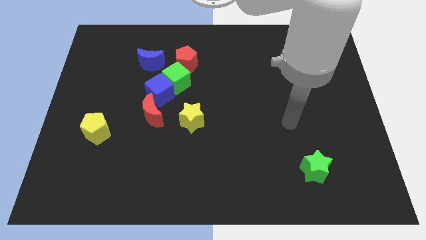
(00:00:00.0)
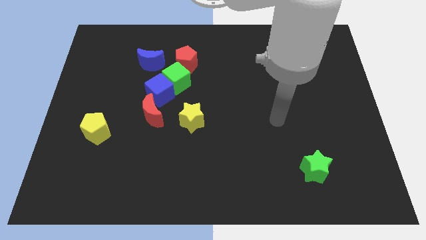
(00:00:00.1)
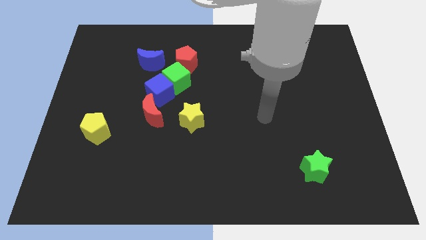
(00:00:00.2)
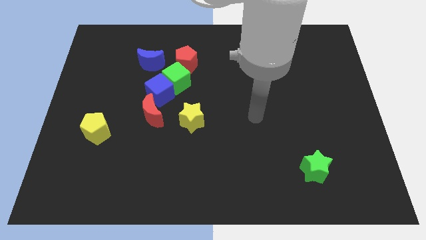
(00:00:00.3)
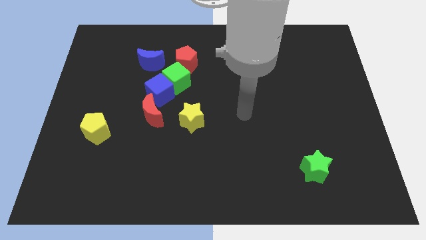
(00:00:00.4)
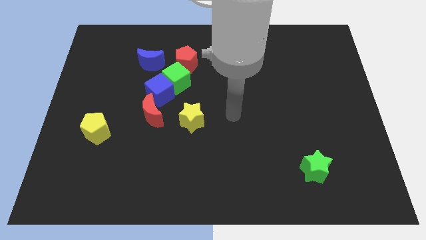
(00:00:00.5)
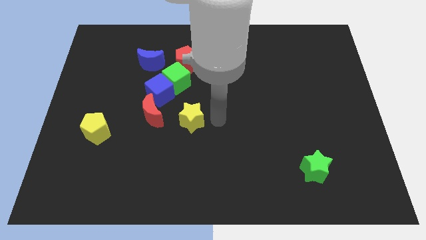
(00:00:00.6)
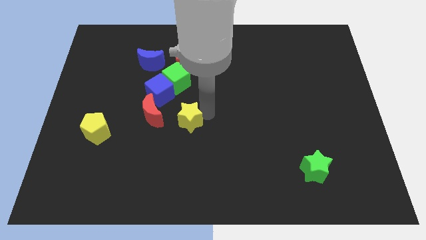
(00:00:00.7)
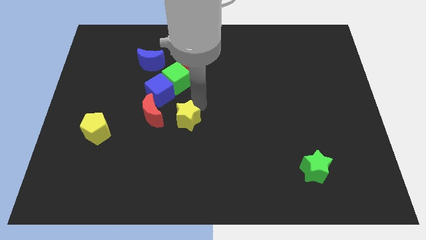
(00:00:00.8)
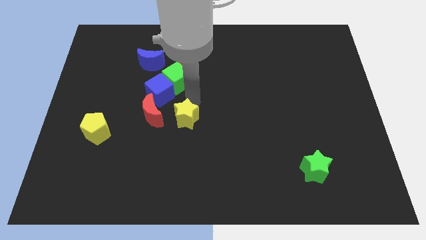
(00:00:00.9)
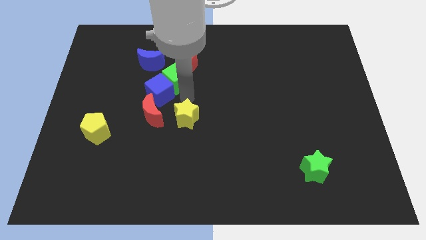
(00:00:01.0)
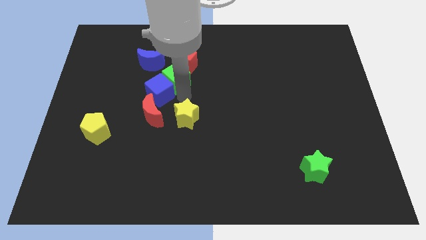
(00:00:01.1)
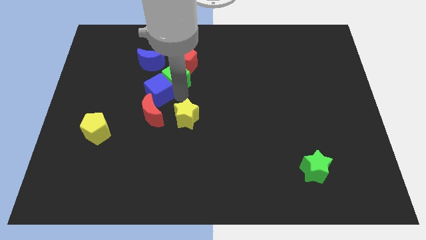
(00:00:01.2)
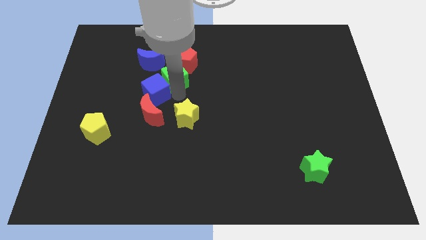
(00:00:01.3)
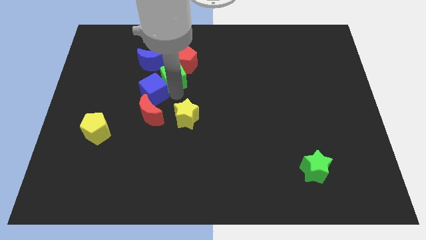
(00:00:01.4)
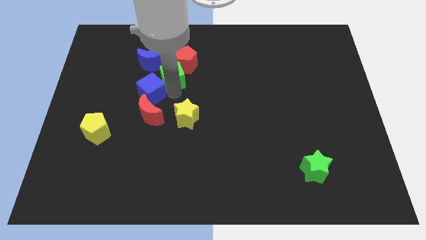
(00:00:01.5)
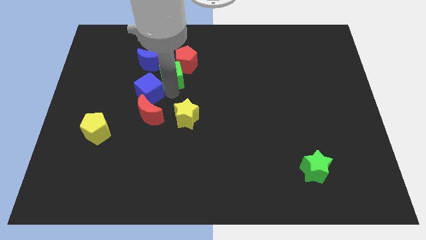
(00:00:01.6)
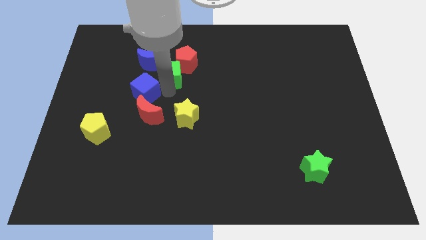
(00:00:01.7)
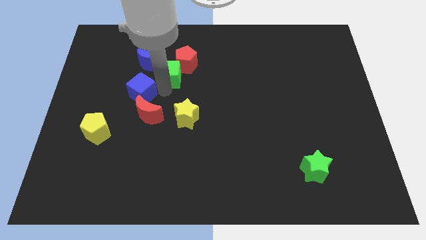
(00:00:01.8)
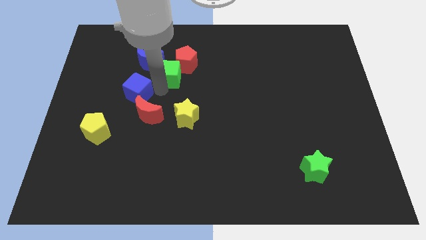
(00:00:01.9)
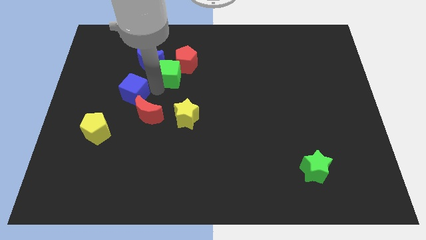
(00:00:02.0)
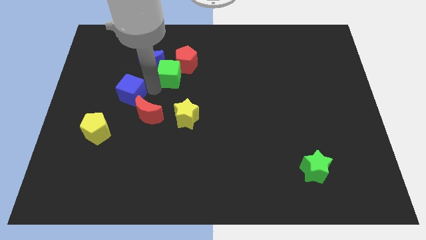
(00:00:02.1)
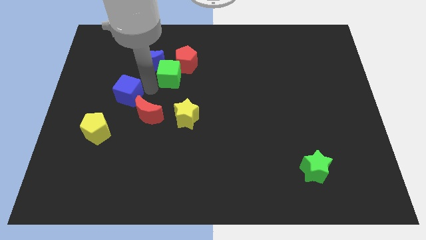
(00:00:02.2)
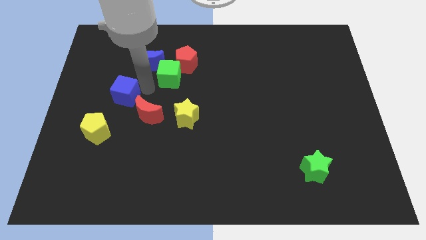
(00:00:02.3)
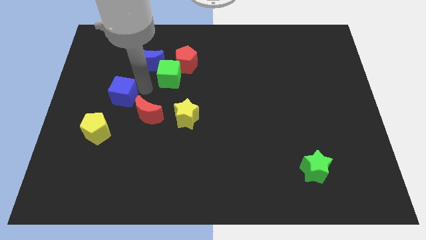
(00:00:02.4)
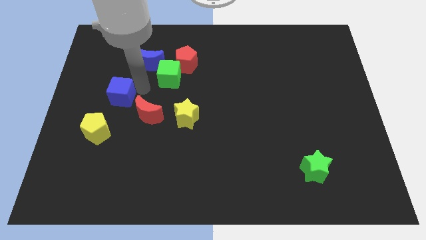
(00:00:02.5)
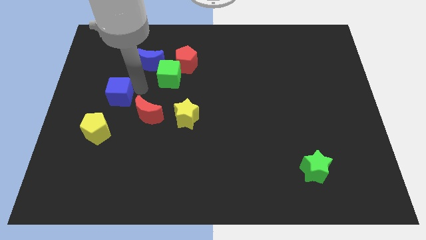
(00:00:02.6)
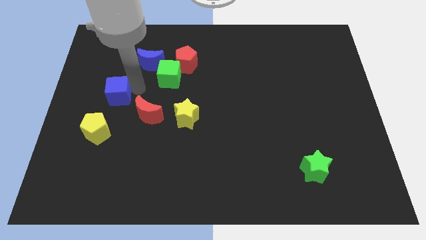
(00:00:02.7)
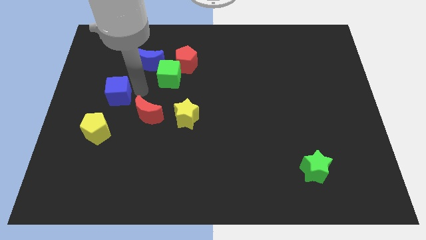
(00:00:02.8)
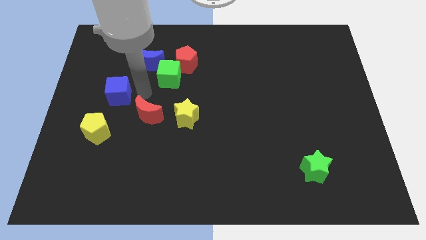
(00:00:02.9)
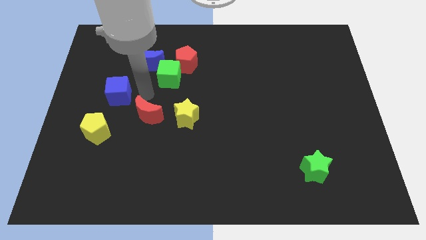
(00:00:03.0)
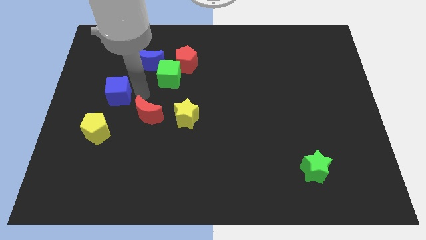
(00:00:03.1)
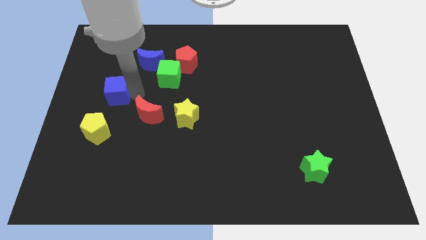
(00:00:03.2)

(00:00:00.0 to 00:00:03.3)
move the blue cube away from the green cube and red moon

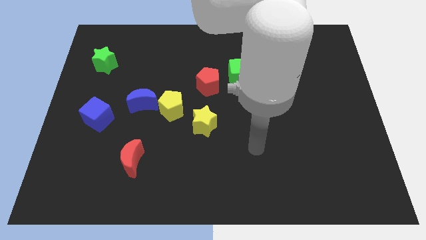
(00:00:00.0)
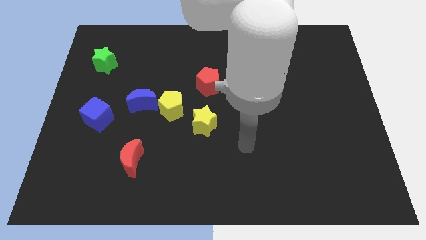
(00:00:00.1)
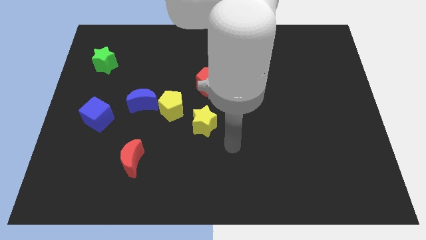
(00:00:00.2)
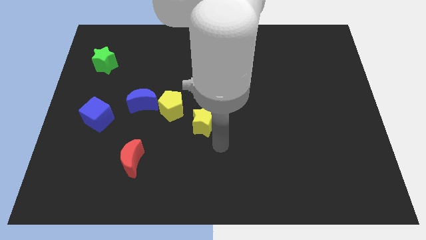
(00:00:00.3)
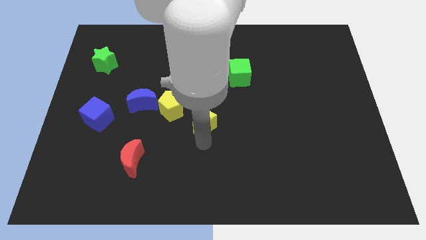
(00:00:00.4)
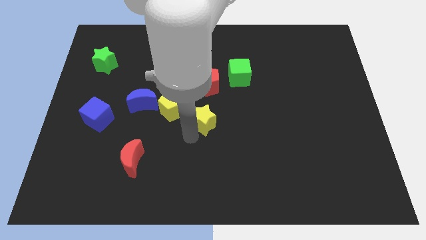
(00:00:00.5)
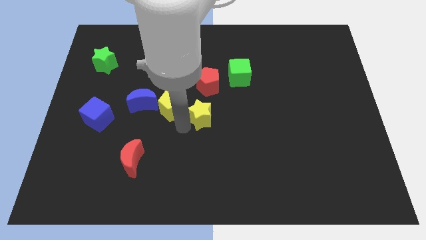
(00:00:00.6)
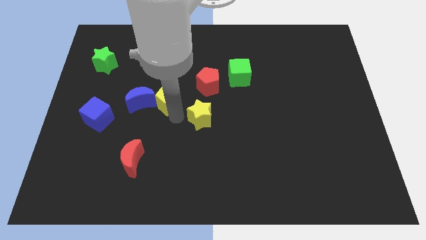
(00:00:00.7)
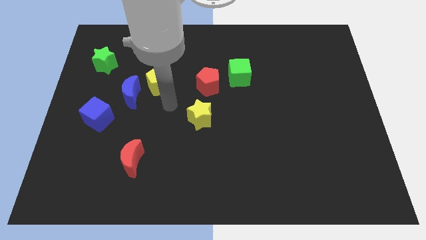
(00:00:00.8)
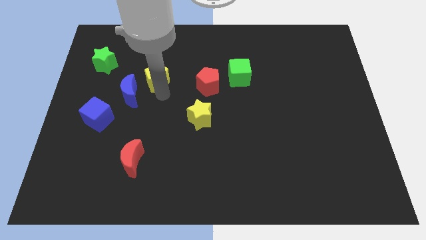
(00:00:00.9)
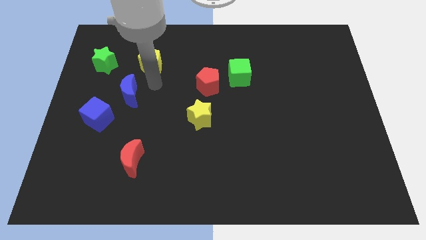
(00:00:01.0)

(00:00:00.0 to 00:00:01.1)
separate the blue moon from the yellow pentagon

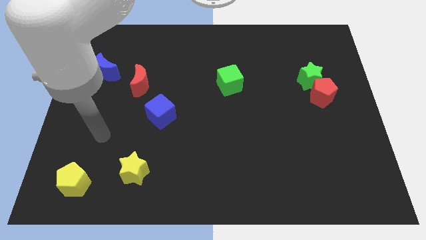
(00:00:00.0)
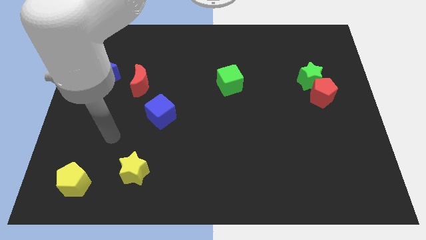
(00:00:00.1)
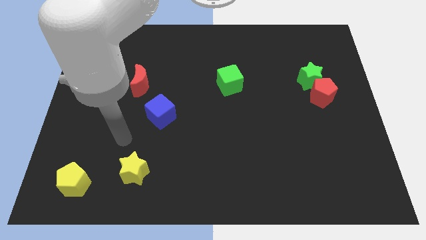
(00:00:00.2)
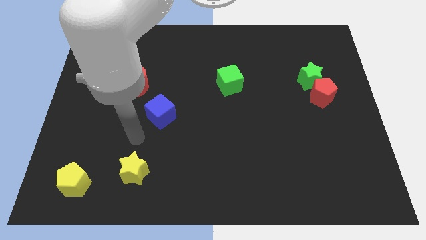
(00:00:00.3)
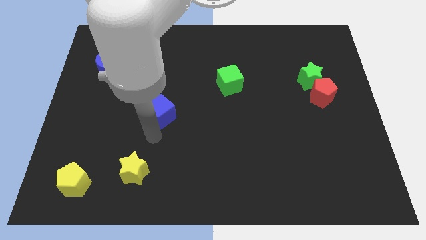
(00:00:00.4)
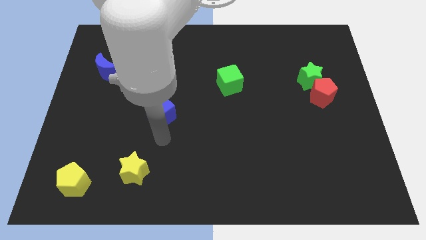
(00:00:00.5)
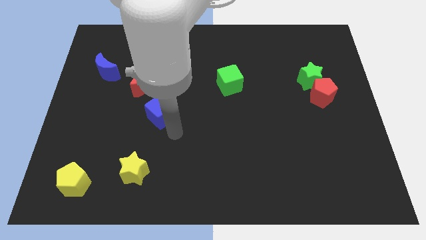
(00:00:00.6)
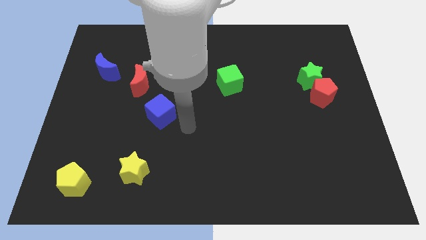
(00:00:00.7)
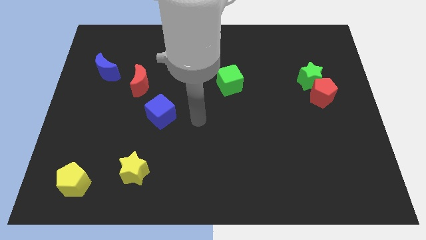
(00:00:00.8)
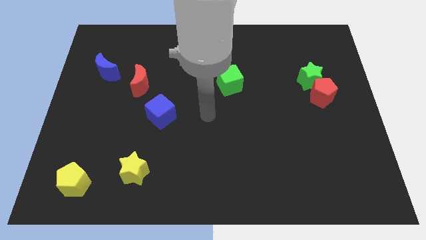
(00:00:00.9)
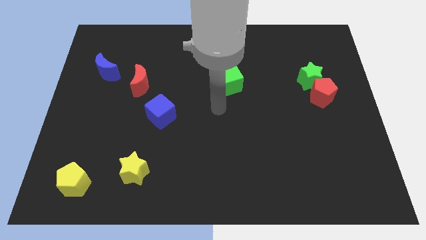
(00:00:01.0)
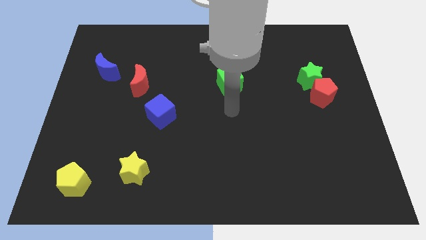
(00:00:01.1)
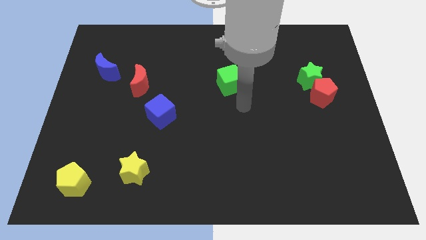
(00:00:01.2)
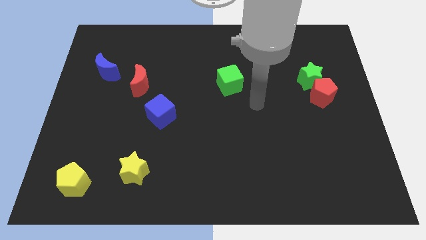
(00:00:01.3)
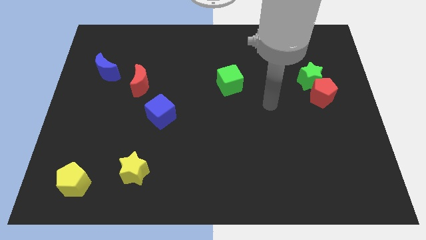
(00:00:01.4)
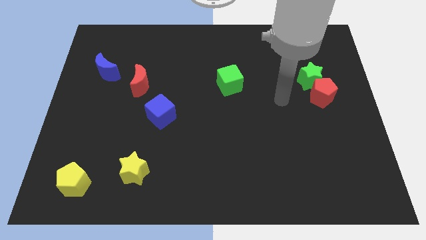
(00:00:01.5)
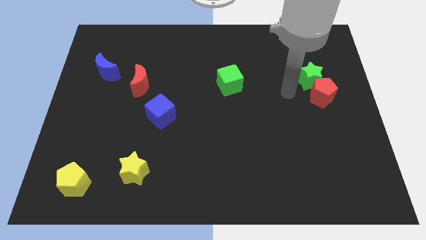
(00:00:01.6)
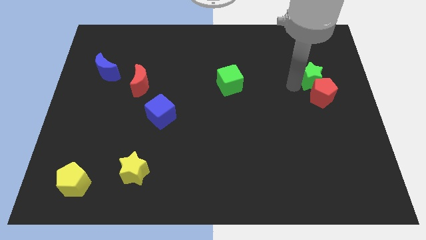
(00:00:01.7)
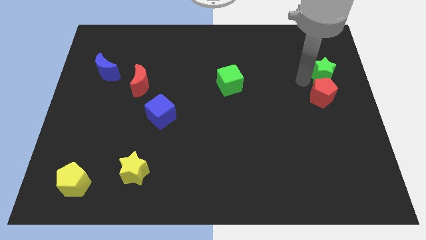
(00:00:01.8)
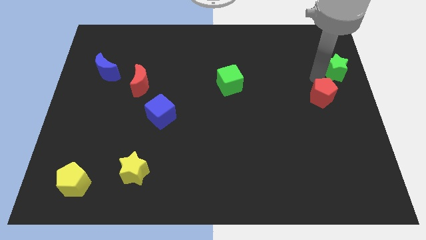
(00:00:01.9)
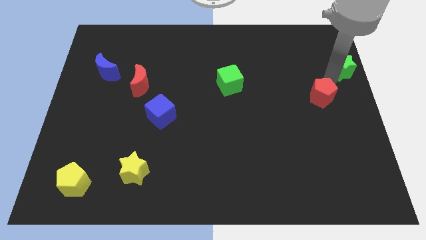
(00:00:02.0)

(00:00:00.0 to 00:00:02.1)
move the red pentagon away from the green star

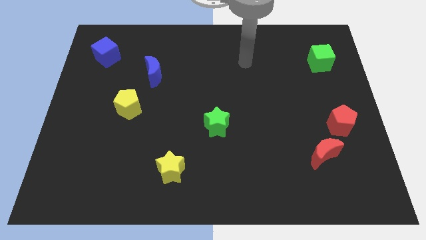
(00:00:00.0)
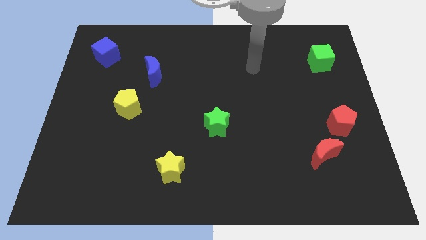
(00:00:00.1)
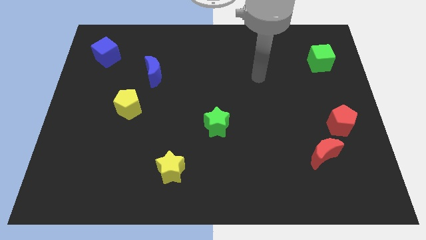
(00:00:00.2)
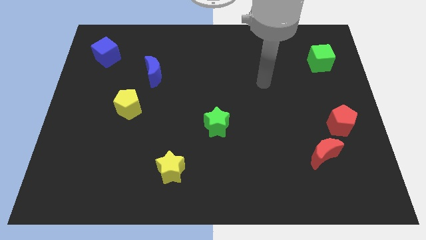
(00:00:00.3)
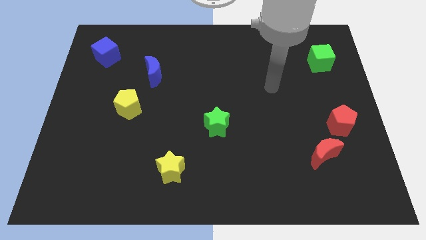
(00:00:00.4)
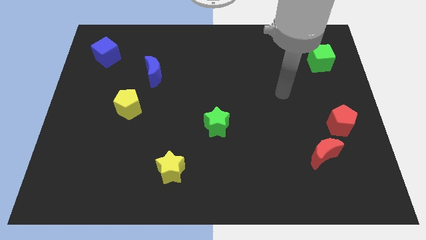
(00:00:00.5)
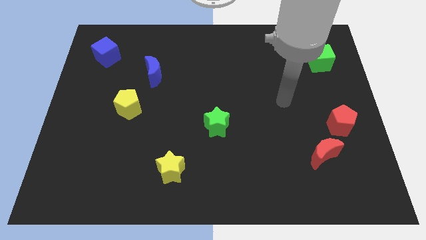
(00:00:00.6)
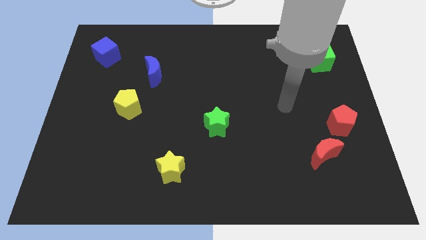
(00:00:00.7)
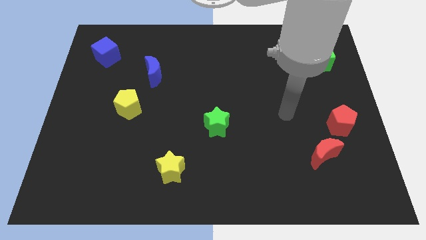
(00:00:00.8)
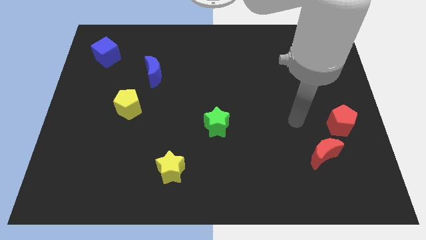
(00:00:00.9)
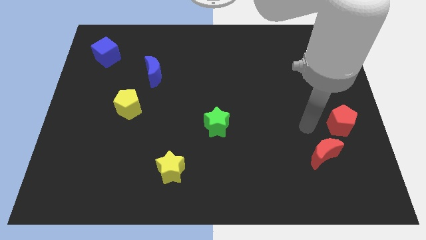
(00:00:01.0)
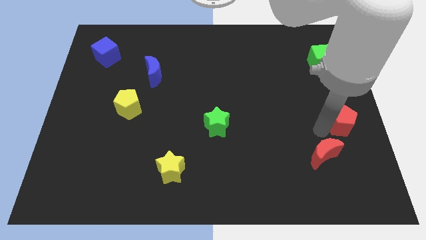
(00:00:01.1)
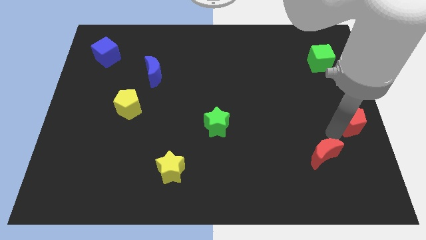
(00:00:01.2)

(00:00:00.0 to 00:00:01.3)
move the red moon away from the red pentagon

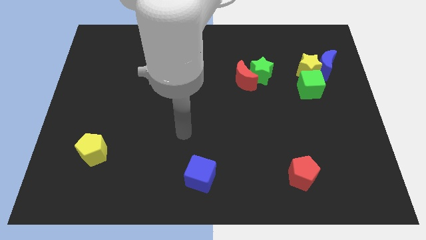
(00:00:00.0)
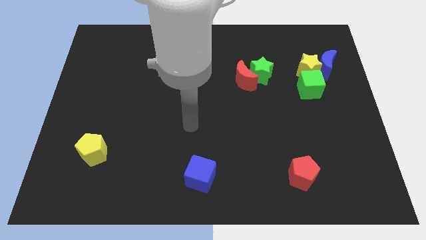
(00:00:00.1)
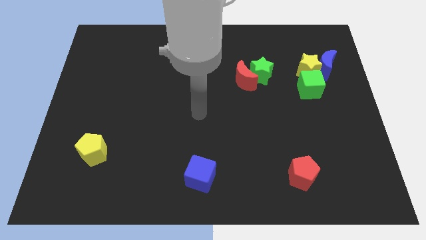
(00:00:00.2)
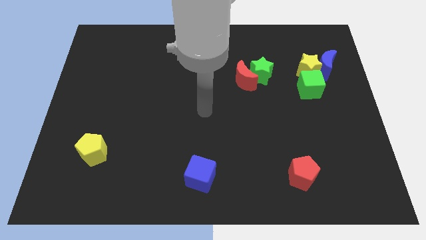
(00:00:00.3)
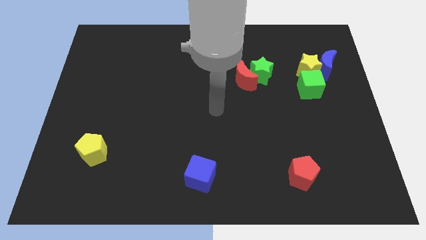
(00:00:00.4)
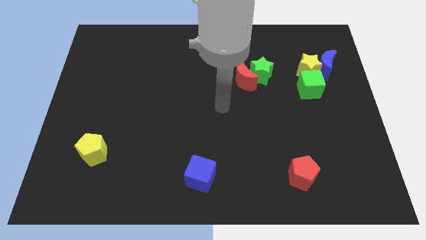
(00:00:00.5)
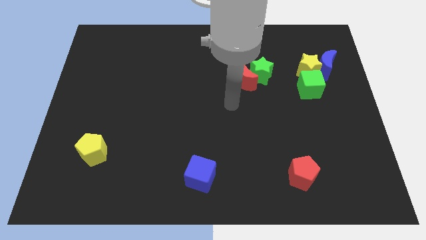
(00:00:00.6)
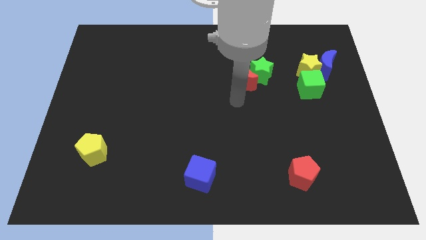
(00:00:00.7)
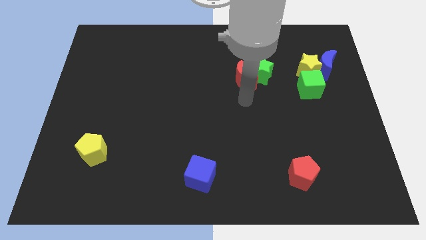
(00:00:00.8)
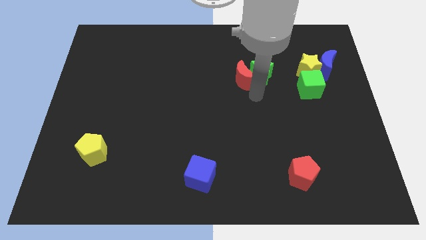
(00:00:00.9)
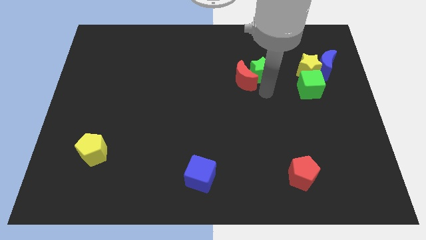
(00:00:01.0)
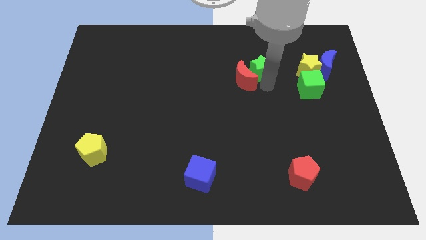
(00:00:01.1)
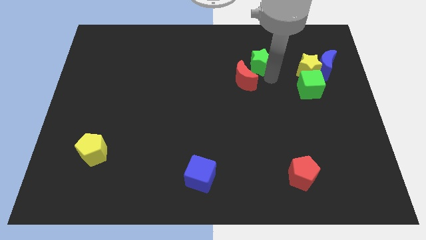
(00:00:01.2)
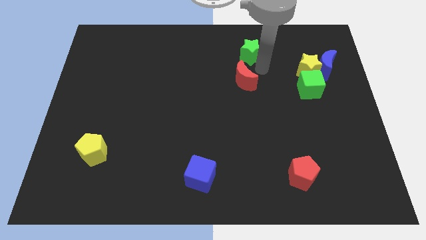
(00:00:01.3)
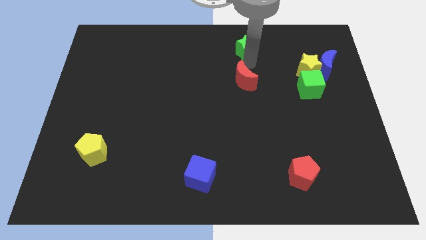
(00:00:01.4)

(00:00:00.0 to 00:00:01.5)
move the red moon away from the green star
